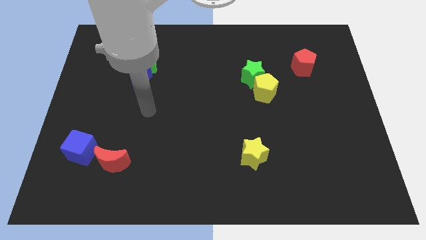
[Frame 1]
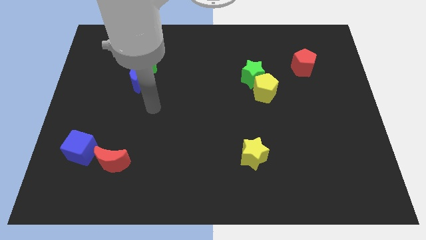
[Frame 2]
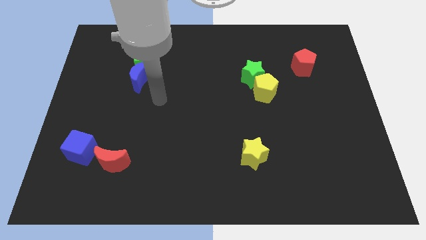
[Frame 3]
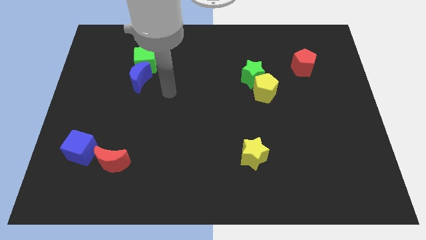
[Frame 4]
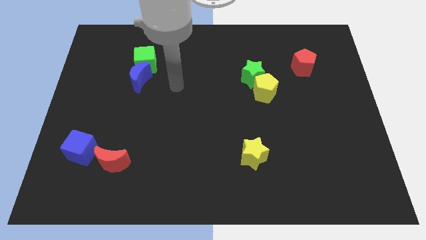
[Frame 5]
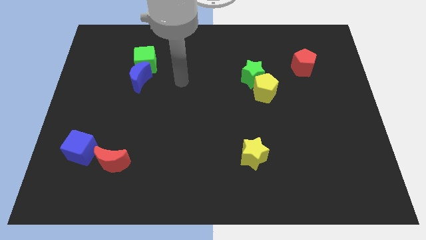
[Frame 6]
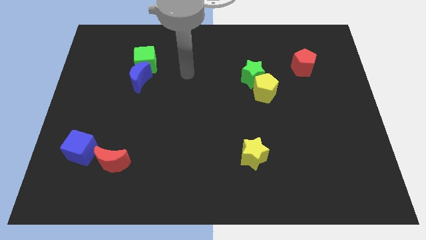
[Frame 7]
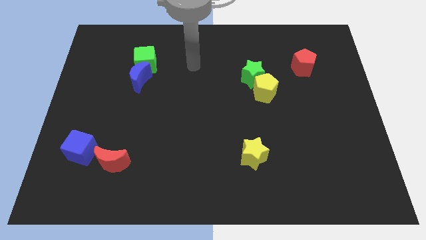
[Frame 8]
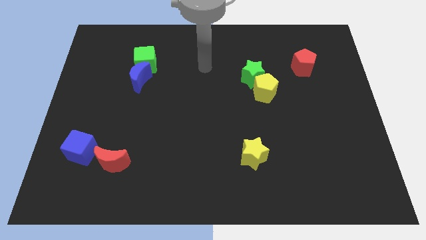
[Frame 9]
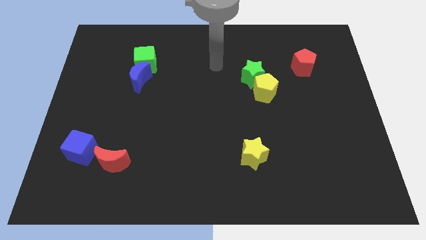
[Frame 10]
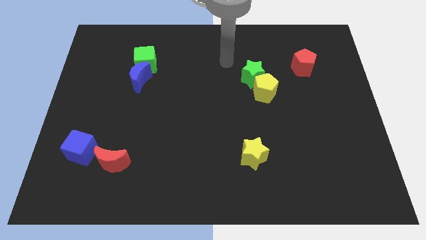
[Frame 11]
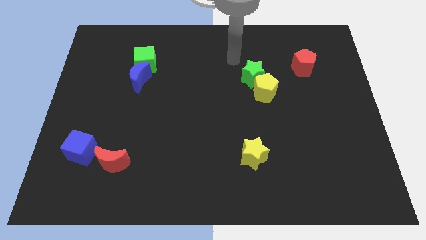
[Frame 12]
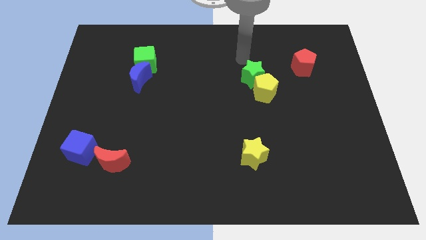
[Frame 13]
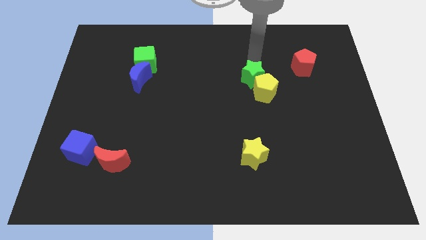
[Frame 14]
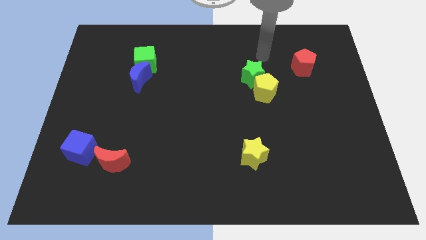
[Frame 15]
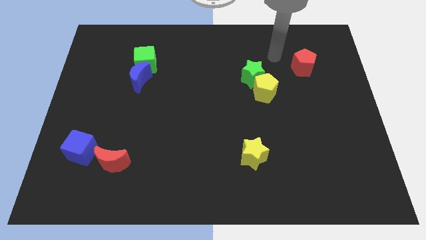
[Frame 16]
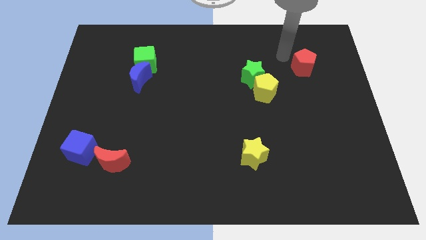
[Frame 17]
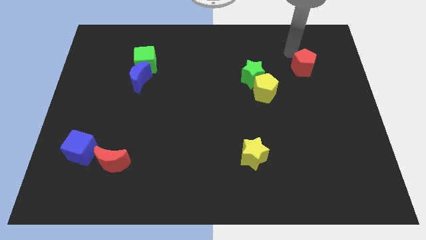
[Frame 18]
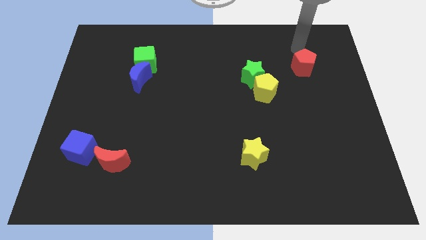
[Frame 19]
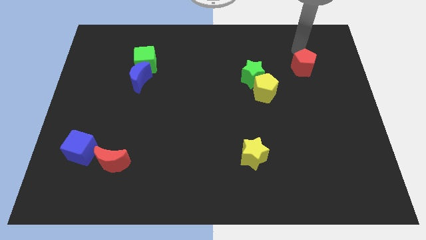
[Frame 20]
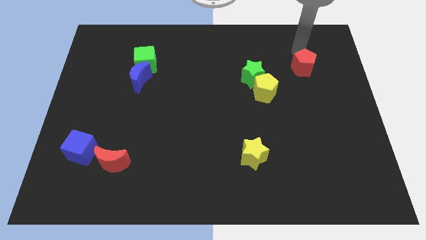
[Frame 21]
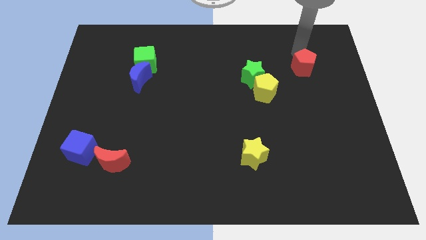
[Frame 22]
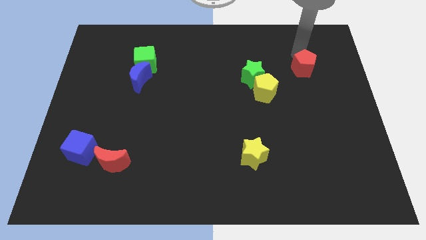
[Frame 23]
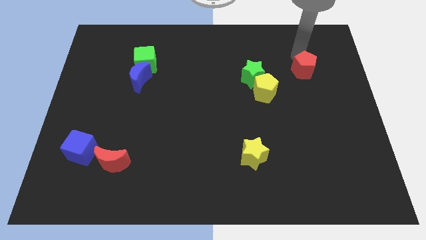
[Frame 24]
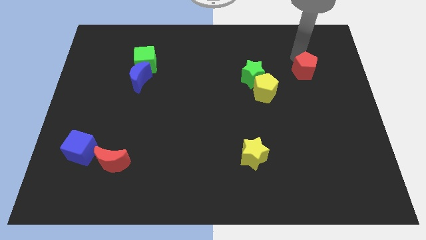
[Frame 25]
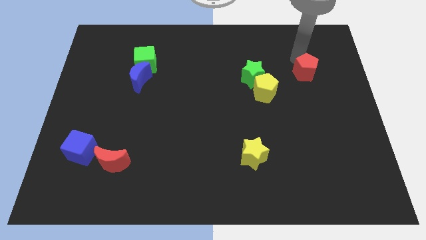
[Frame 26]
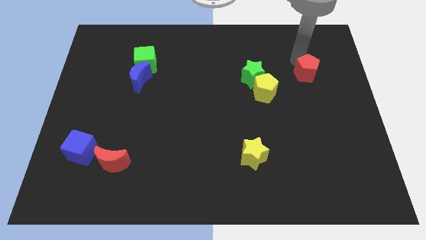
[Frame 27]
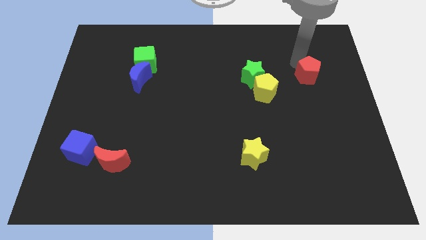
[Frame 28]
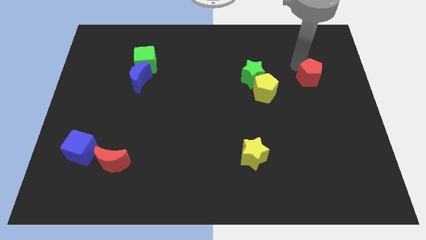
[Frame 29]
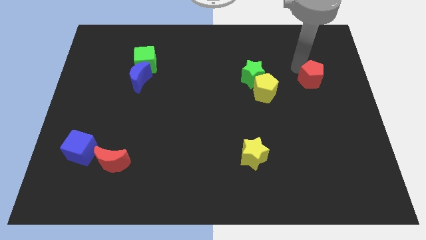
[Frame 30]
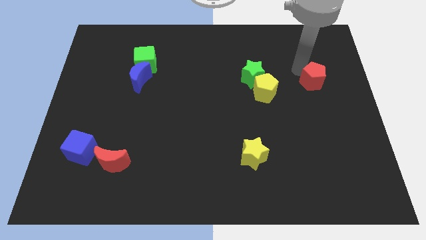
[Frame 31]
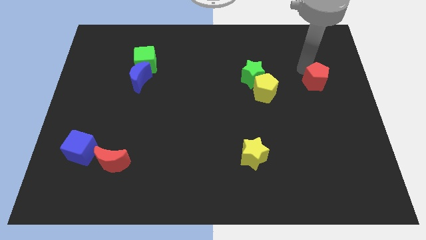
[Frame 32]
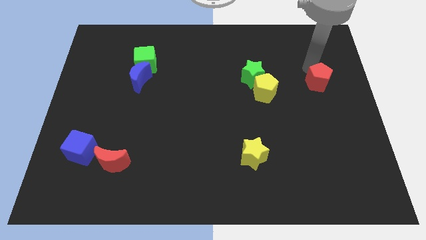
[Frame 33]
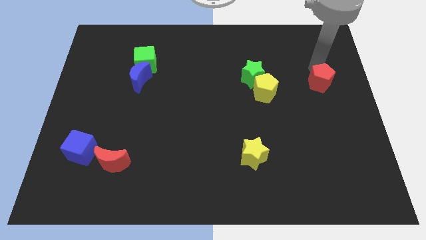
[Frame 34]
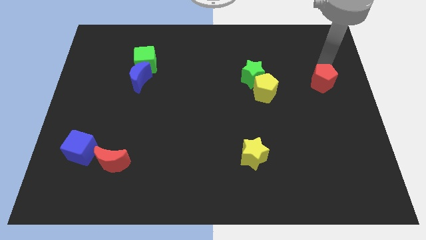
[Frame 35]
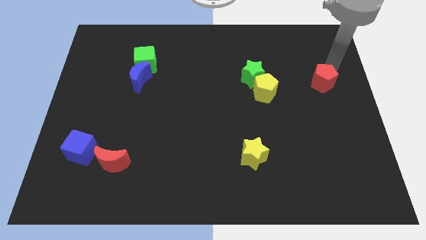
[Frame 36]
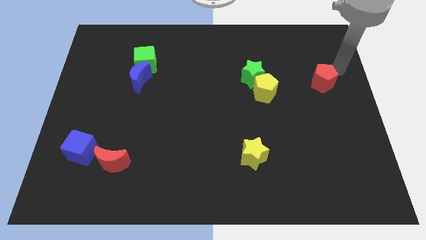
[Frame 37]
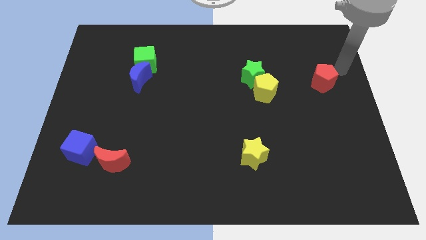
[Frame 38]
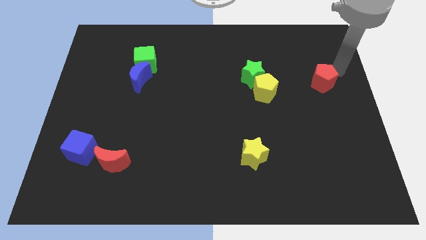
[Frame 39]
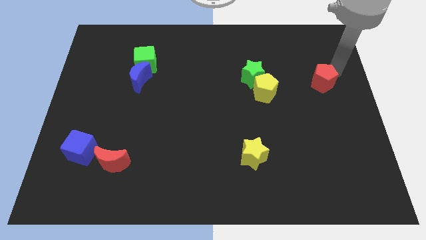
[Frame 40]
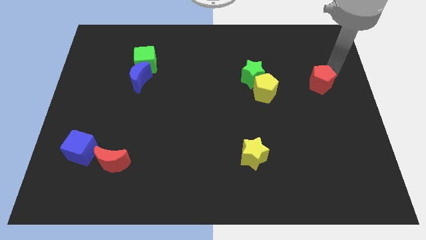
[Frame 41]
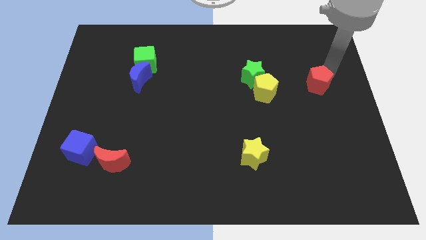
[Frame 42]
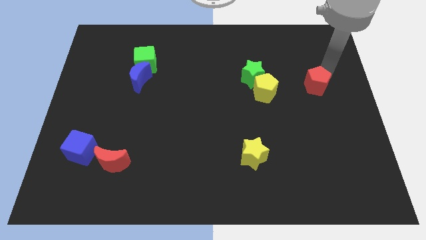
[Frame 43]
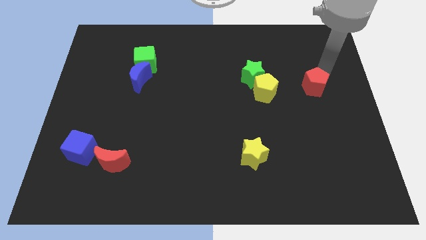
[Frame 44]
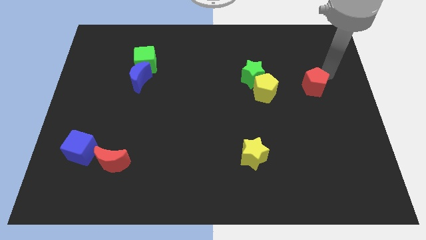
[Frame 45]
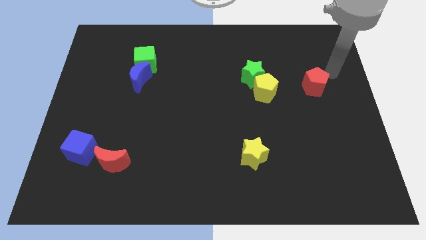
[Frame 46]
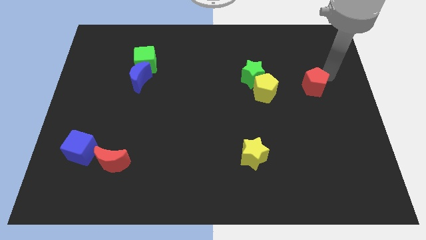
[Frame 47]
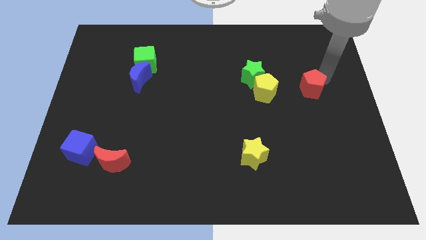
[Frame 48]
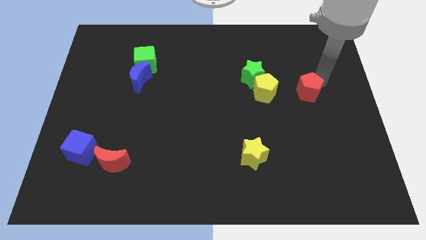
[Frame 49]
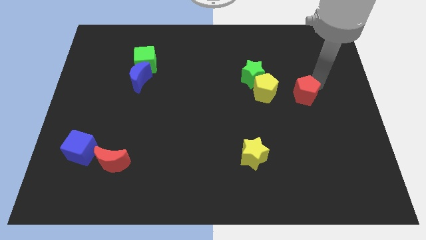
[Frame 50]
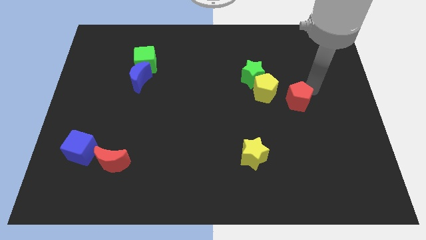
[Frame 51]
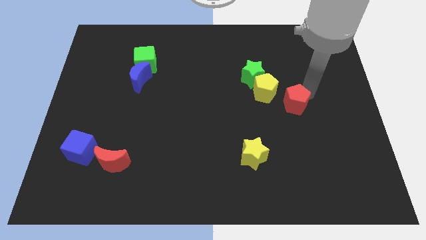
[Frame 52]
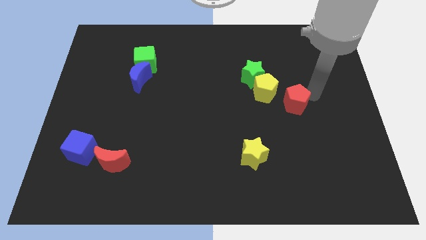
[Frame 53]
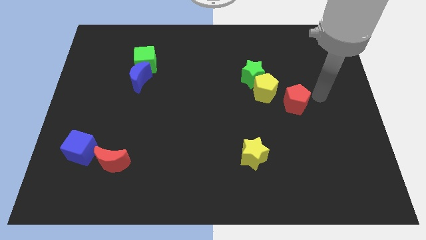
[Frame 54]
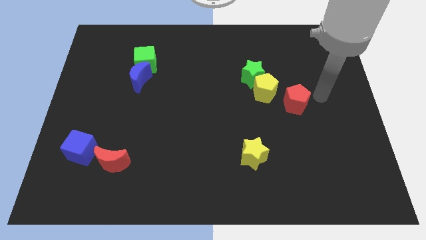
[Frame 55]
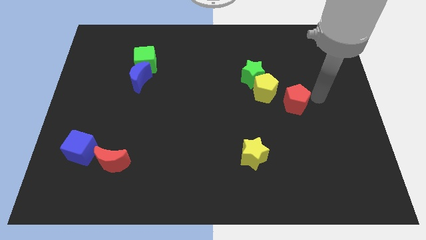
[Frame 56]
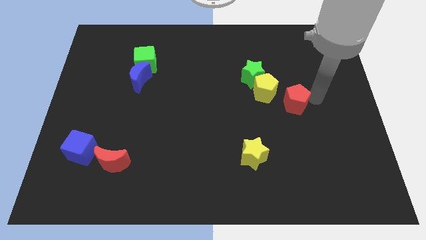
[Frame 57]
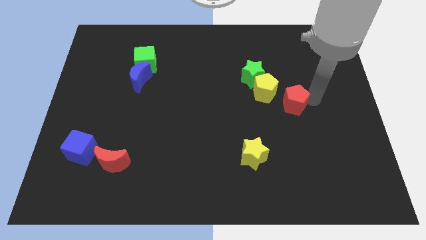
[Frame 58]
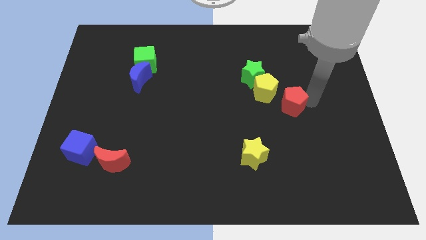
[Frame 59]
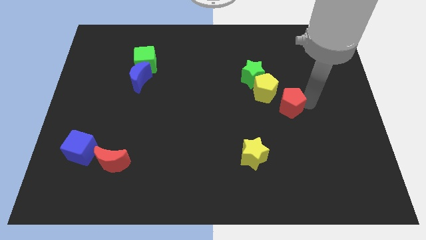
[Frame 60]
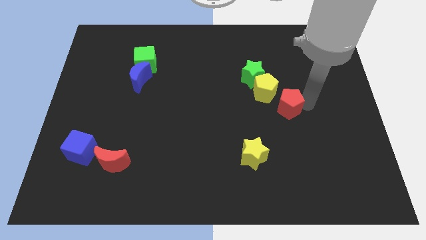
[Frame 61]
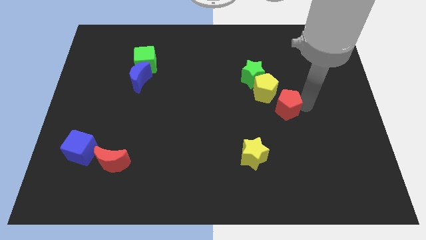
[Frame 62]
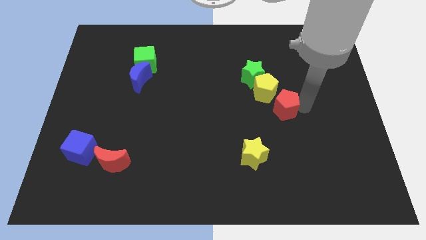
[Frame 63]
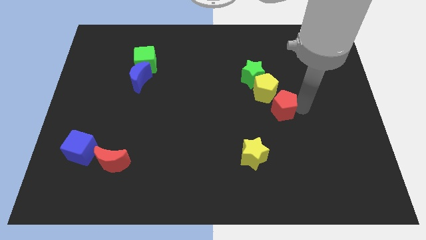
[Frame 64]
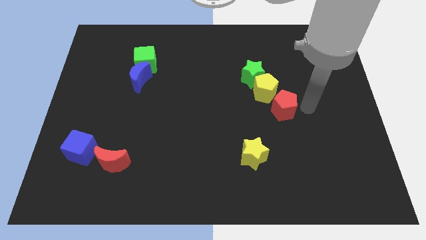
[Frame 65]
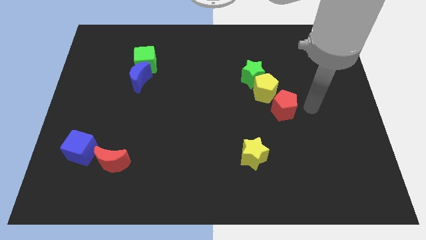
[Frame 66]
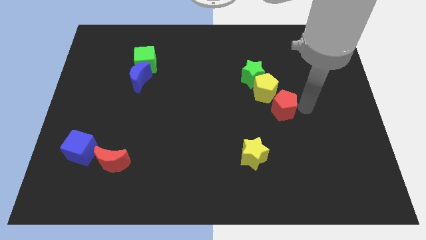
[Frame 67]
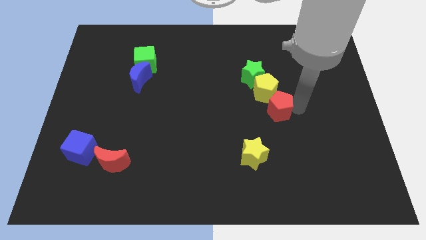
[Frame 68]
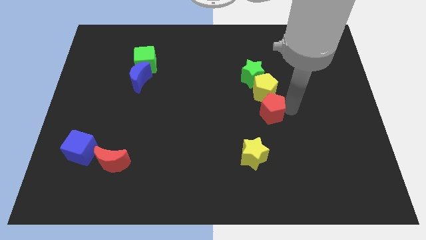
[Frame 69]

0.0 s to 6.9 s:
slide the red pentagon below the green star

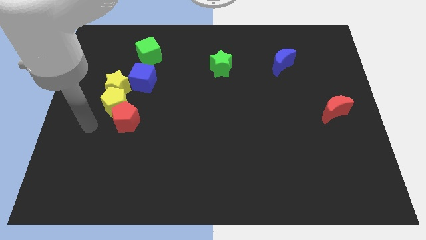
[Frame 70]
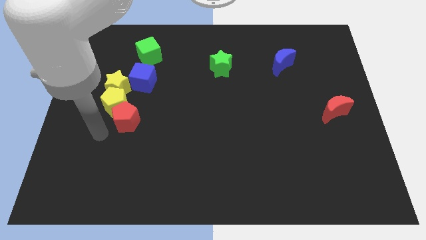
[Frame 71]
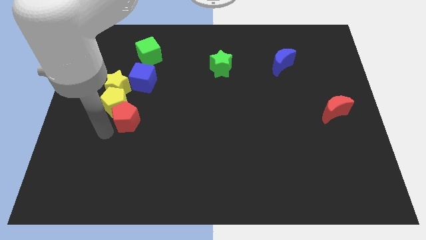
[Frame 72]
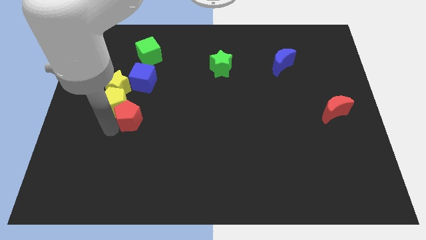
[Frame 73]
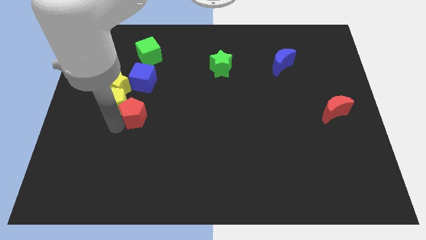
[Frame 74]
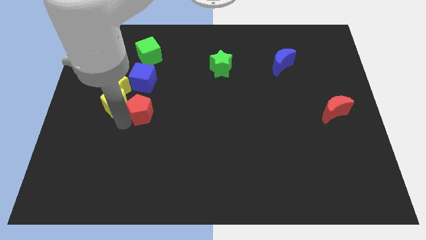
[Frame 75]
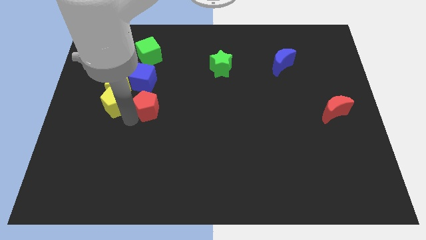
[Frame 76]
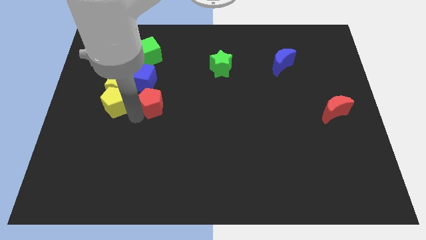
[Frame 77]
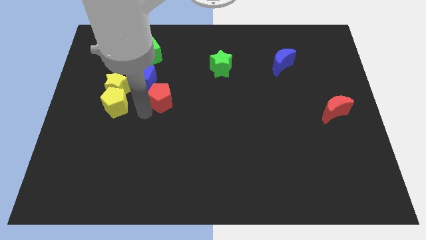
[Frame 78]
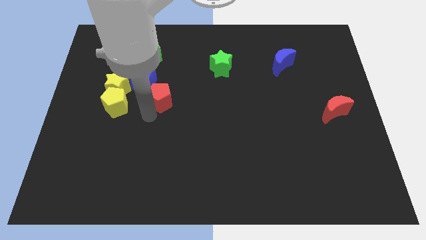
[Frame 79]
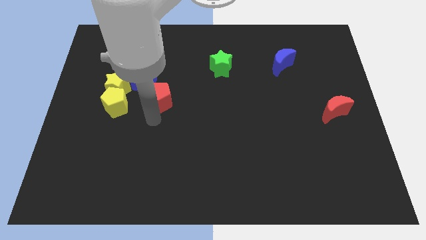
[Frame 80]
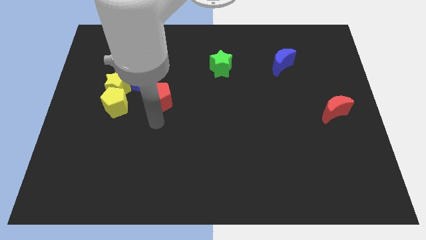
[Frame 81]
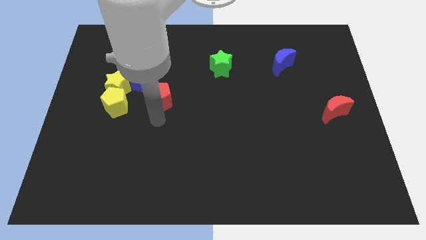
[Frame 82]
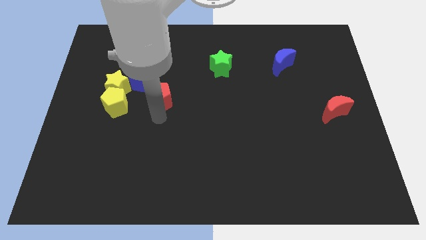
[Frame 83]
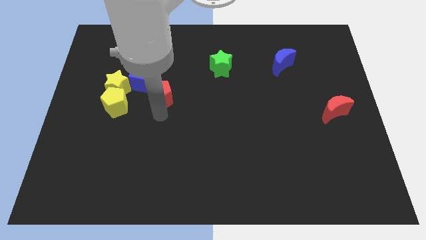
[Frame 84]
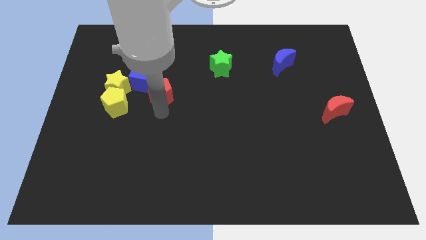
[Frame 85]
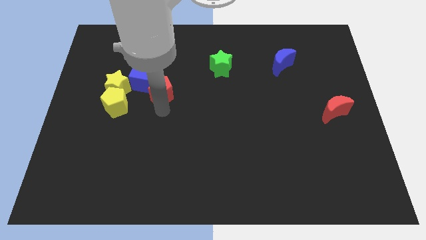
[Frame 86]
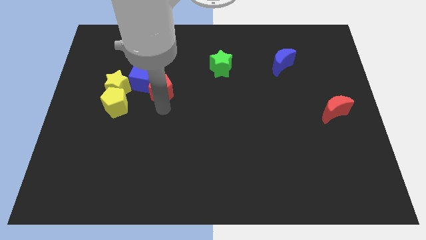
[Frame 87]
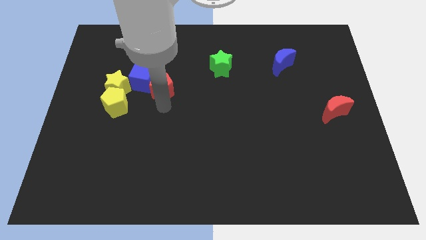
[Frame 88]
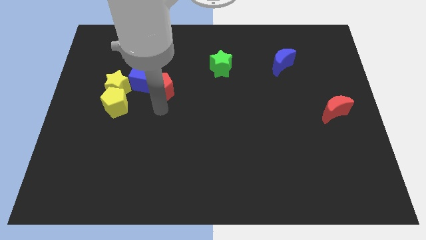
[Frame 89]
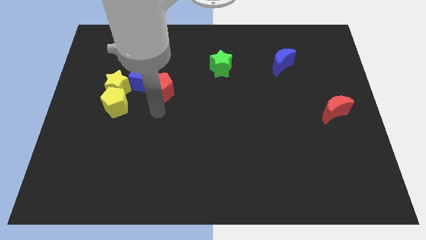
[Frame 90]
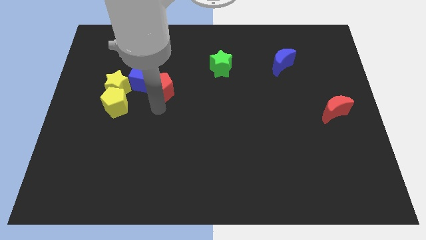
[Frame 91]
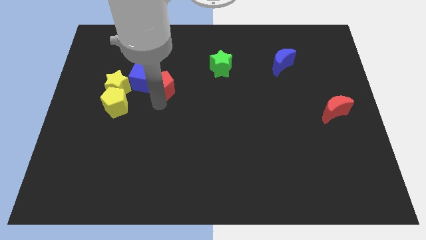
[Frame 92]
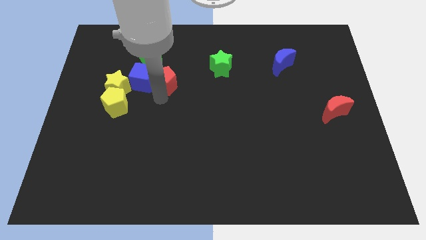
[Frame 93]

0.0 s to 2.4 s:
push the red pentagon diagonally down and to the right of the green cube
